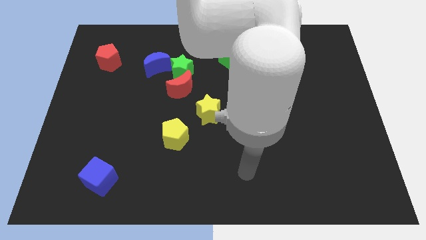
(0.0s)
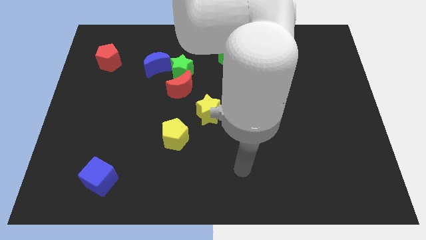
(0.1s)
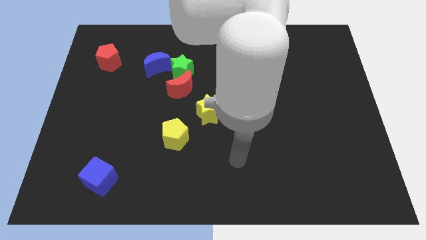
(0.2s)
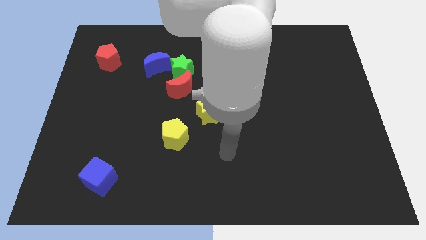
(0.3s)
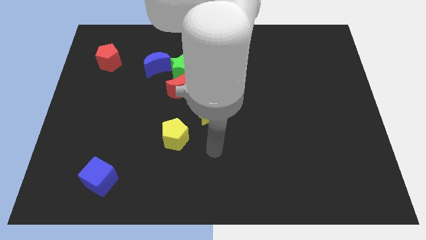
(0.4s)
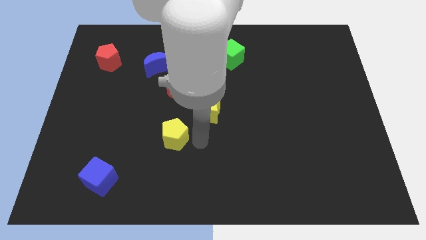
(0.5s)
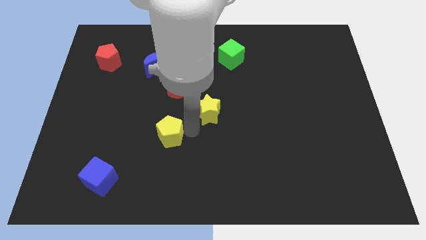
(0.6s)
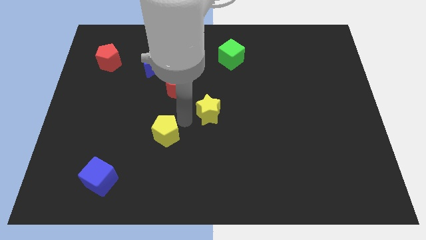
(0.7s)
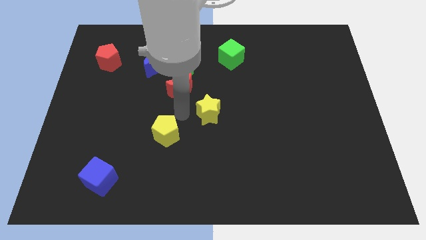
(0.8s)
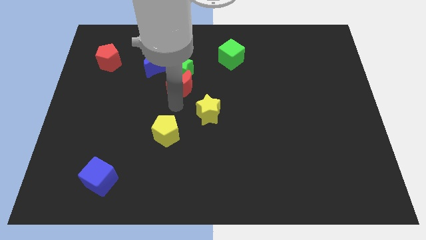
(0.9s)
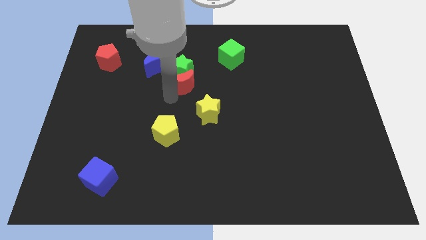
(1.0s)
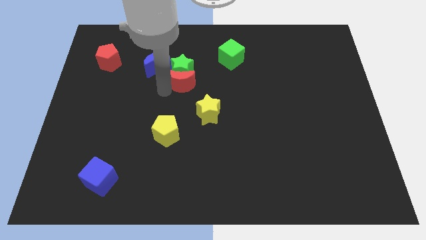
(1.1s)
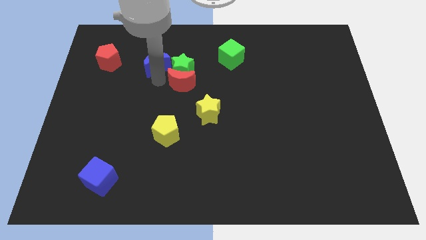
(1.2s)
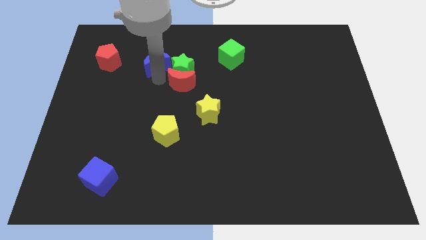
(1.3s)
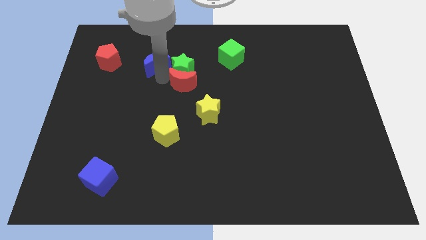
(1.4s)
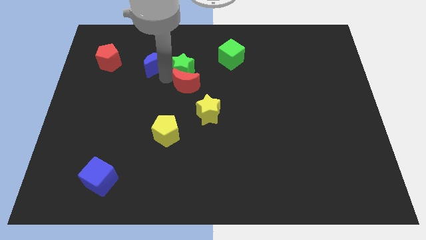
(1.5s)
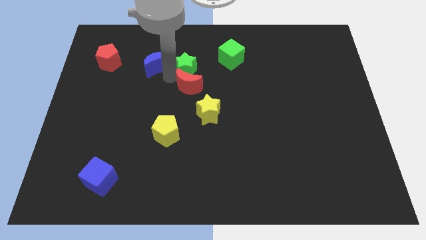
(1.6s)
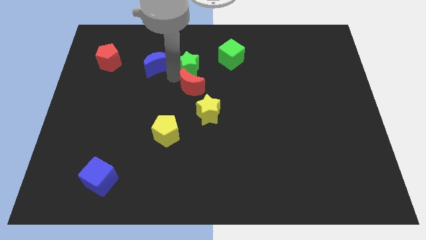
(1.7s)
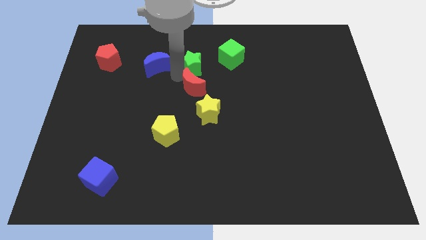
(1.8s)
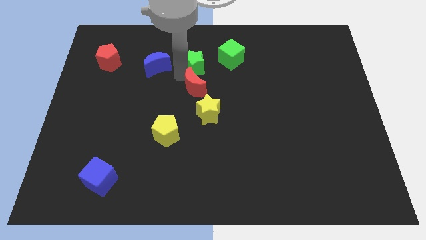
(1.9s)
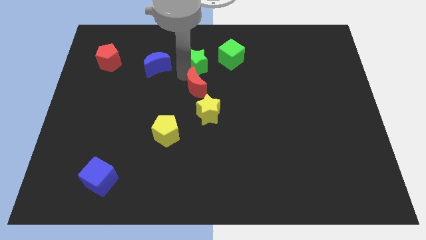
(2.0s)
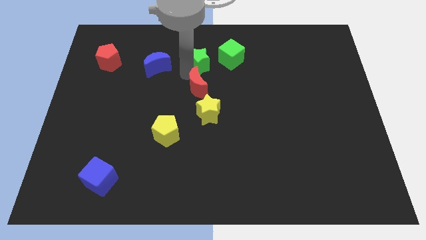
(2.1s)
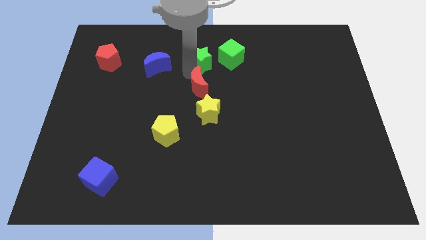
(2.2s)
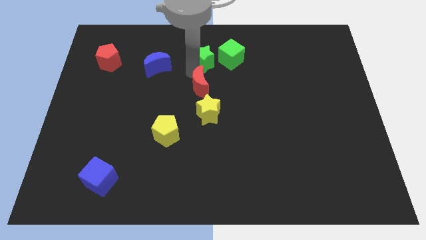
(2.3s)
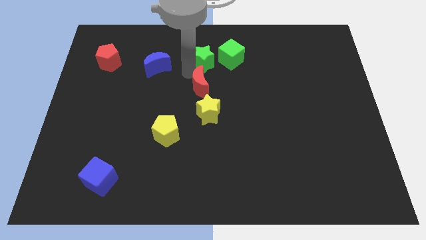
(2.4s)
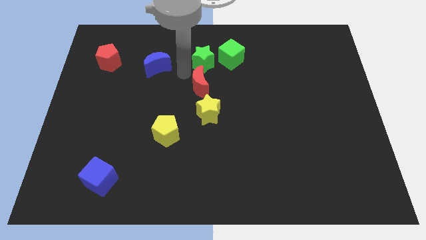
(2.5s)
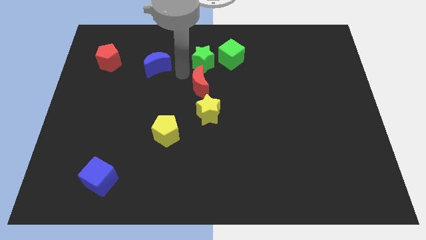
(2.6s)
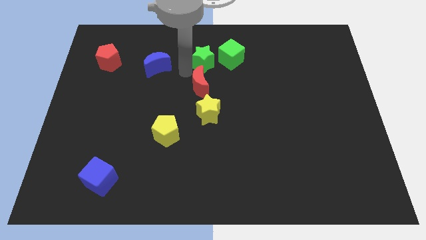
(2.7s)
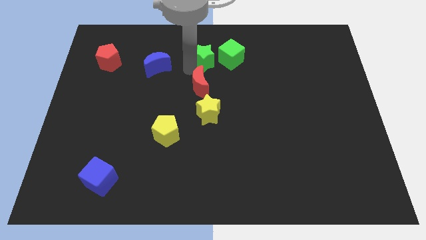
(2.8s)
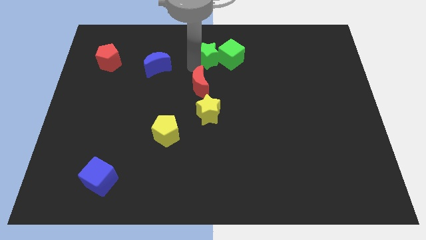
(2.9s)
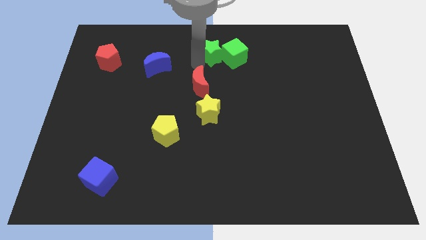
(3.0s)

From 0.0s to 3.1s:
move the green star away from the red moon and blue moon

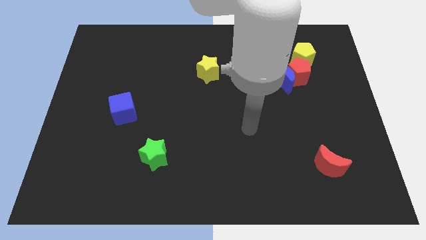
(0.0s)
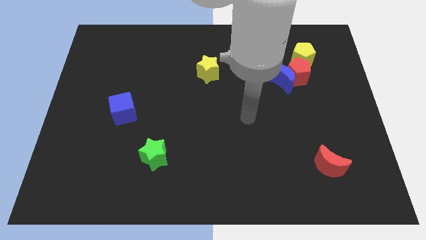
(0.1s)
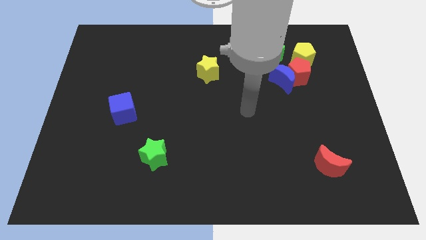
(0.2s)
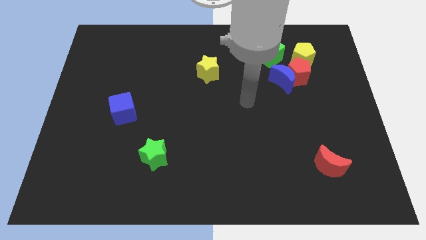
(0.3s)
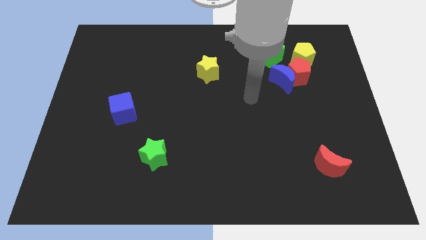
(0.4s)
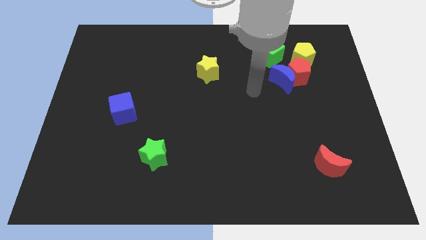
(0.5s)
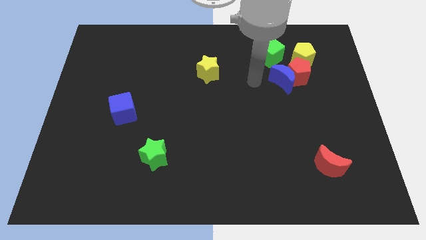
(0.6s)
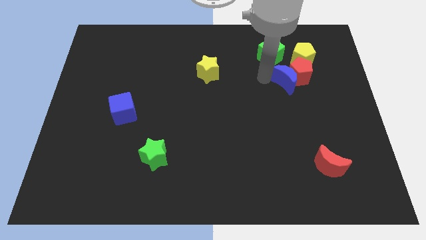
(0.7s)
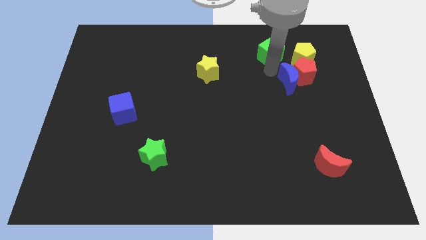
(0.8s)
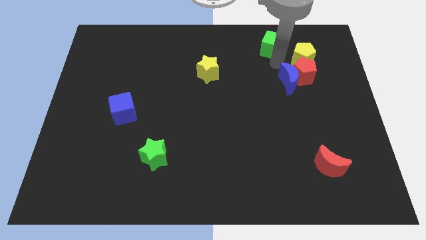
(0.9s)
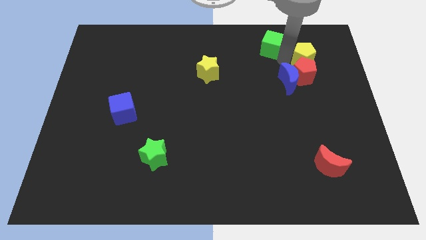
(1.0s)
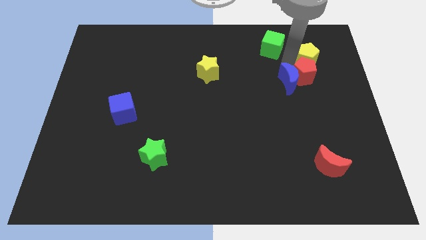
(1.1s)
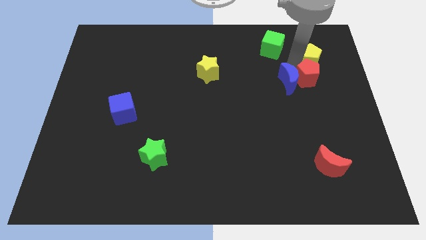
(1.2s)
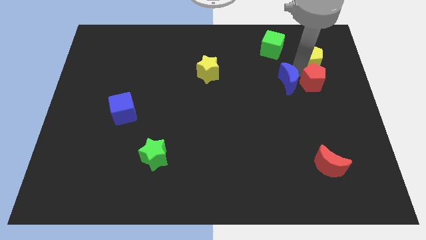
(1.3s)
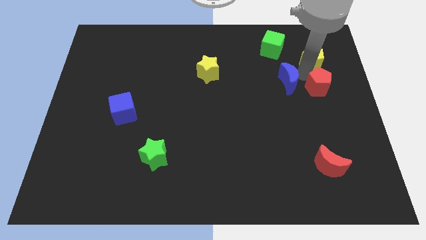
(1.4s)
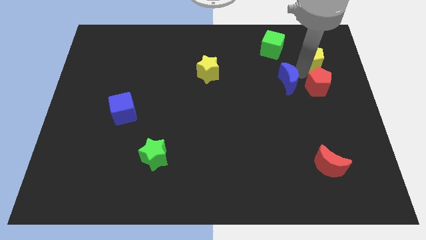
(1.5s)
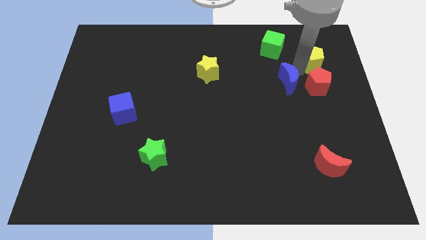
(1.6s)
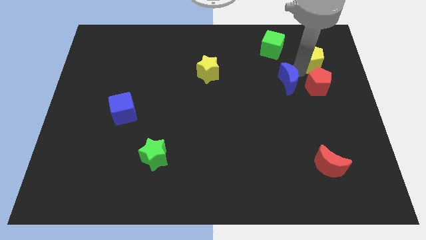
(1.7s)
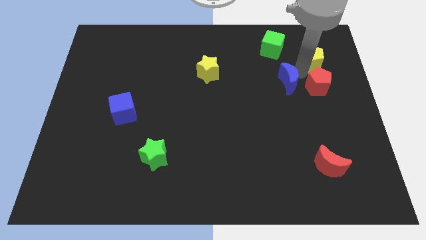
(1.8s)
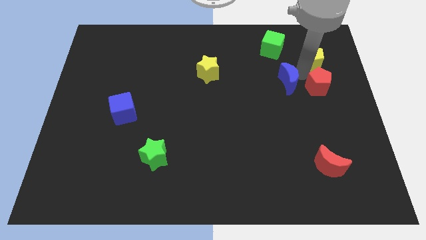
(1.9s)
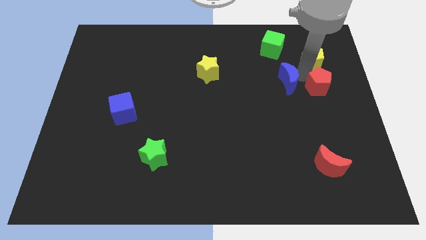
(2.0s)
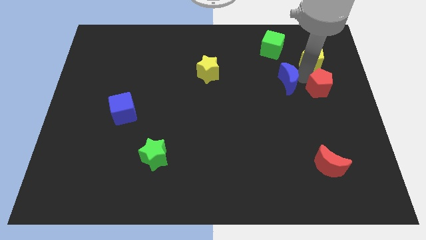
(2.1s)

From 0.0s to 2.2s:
pull the red pentagon apart from the clump

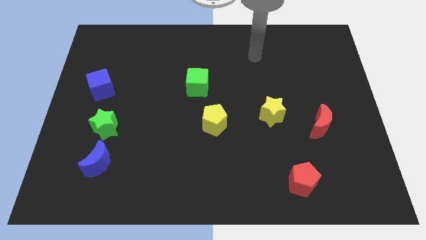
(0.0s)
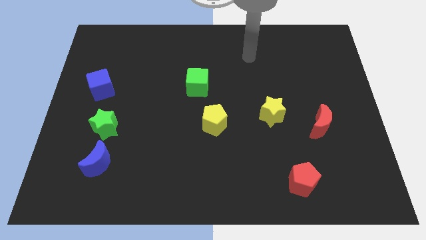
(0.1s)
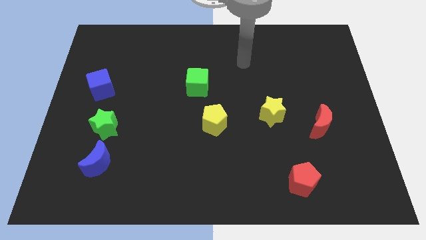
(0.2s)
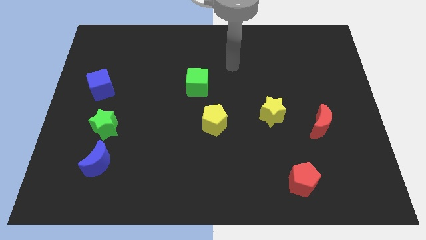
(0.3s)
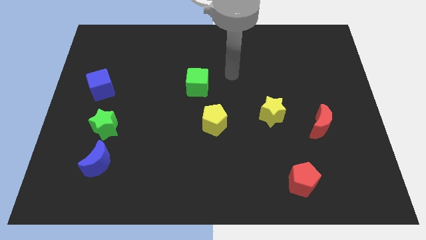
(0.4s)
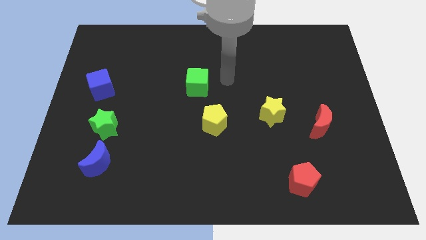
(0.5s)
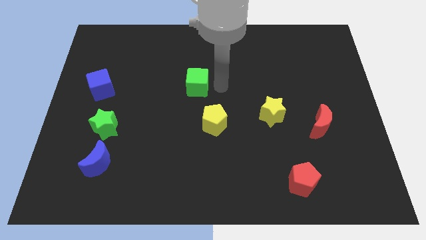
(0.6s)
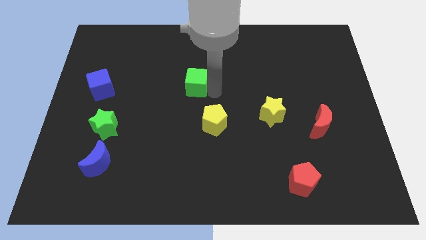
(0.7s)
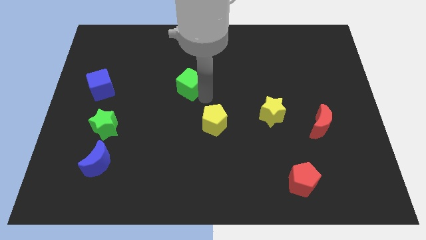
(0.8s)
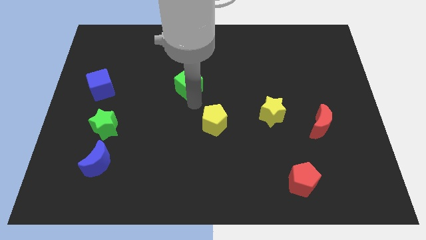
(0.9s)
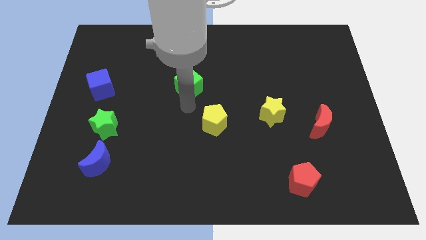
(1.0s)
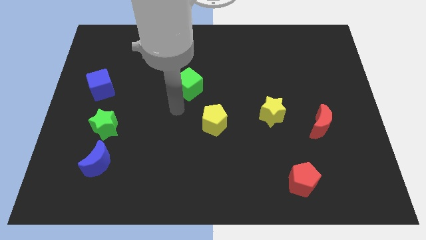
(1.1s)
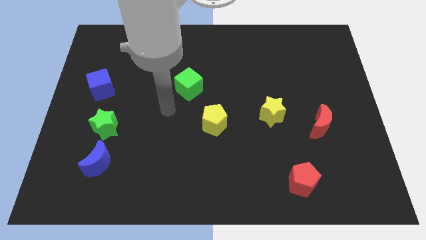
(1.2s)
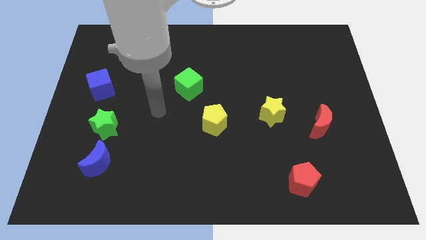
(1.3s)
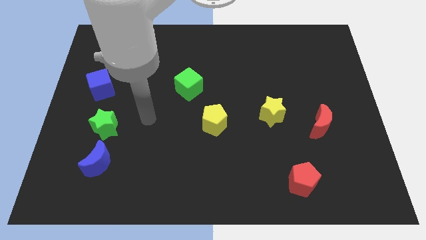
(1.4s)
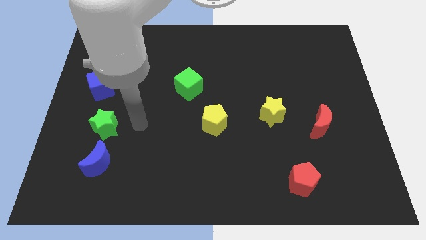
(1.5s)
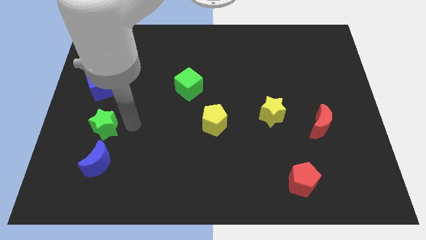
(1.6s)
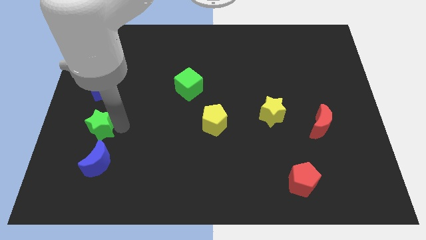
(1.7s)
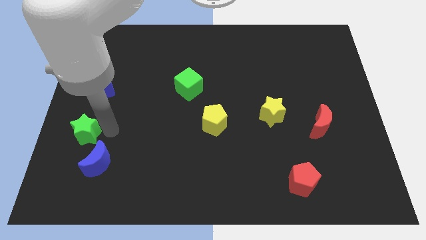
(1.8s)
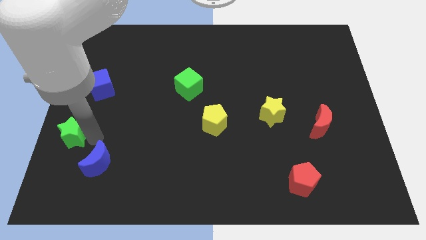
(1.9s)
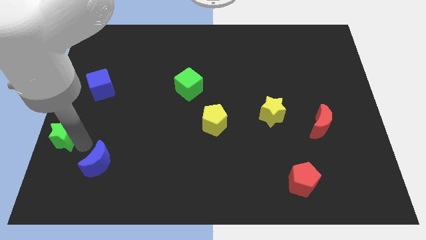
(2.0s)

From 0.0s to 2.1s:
pull the blue moon apart from the green star

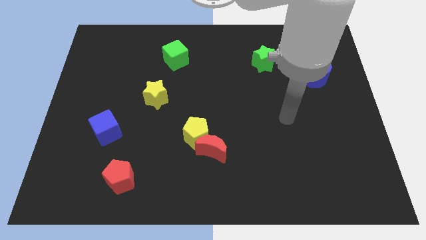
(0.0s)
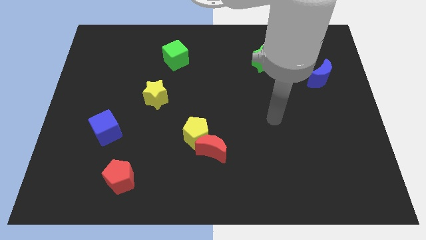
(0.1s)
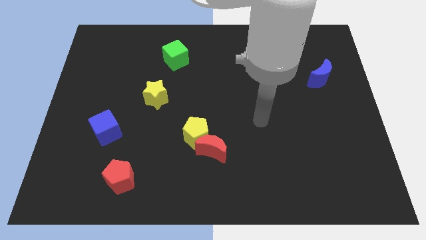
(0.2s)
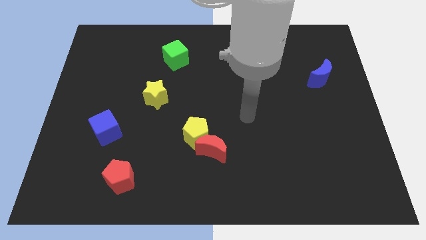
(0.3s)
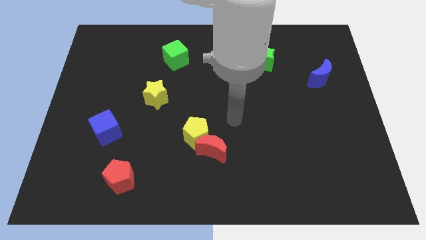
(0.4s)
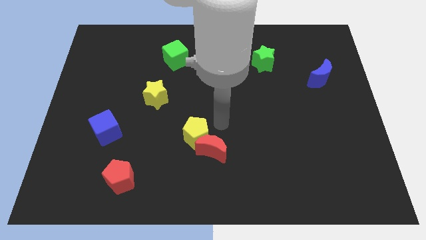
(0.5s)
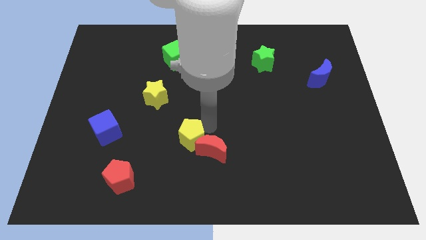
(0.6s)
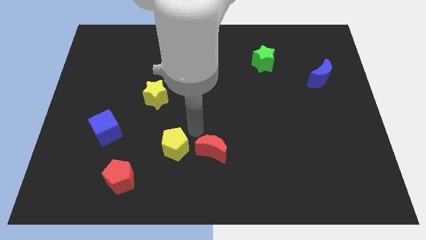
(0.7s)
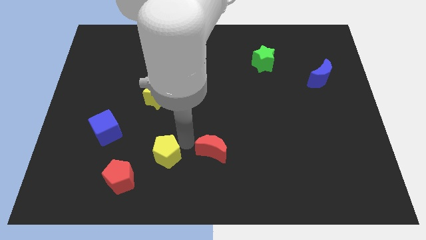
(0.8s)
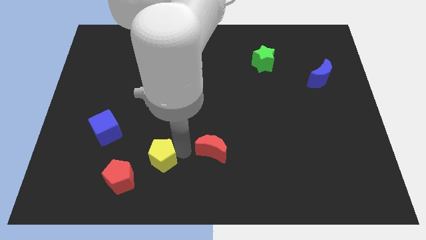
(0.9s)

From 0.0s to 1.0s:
move the red moon away from the yellow pentagon

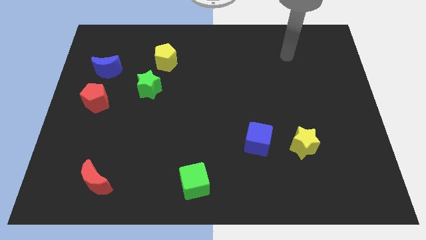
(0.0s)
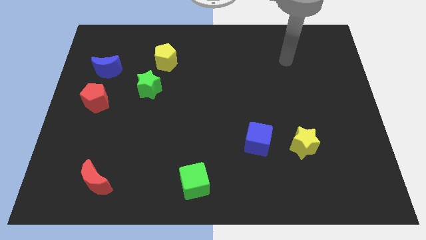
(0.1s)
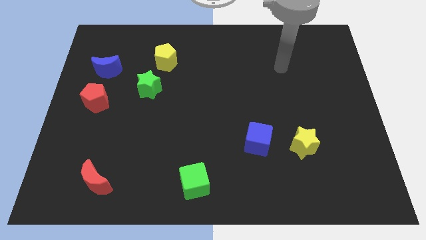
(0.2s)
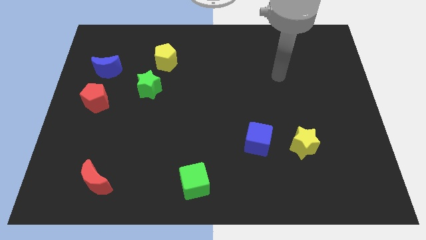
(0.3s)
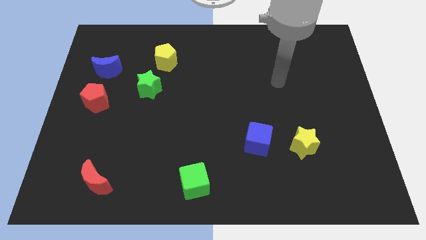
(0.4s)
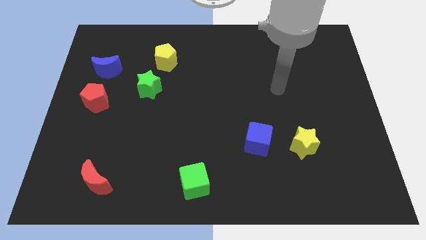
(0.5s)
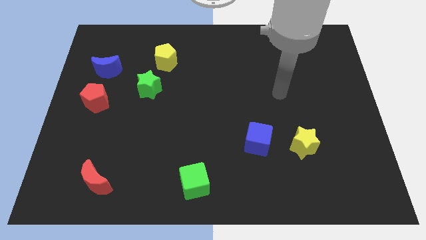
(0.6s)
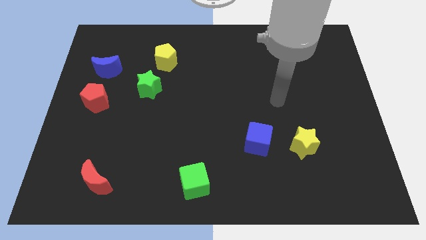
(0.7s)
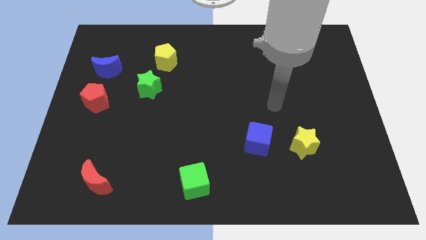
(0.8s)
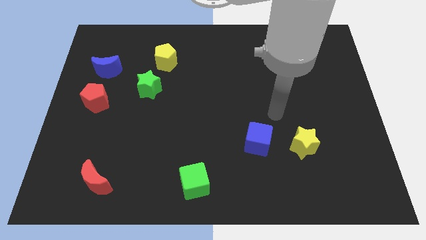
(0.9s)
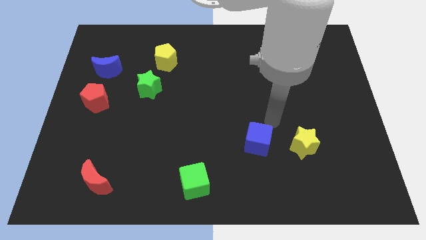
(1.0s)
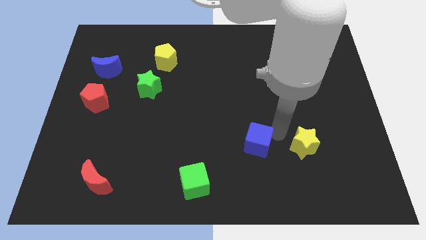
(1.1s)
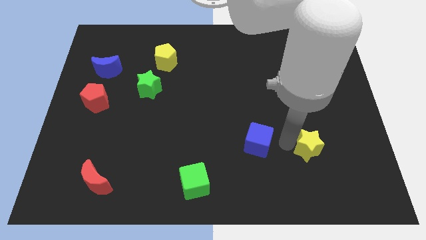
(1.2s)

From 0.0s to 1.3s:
separate the blue cube from the yellow star
